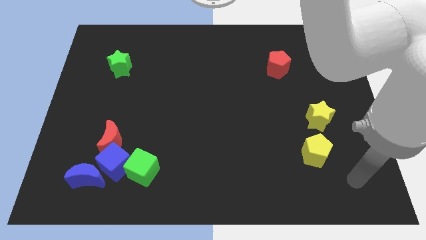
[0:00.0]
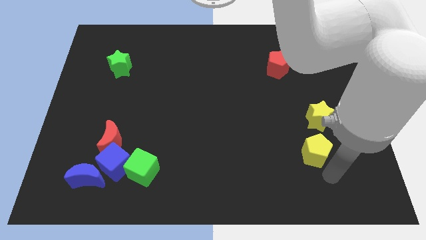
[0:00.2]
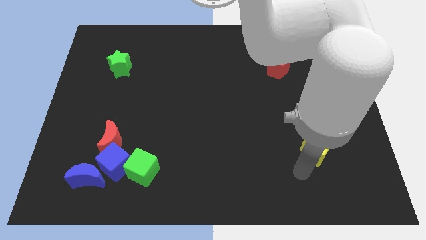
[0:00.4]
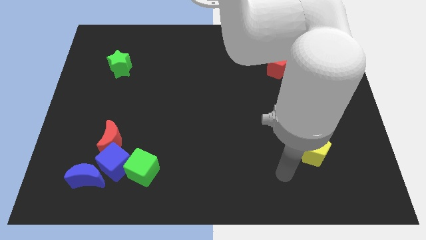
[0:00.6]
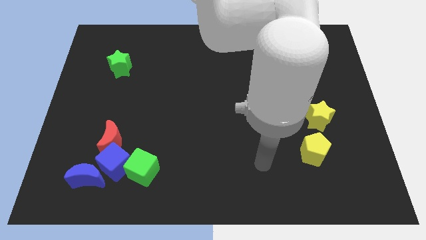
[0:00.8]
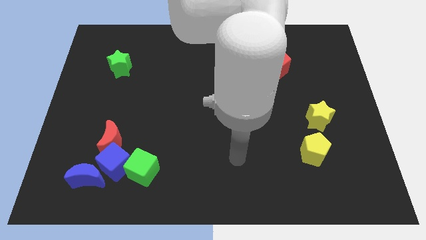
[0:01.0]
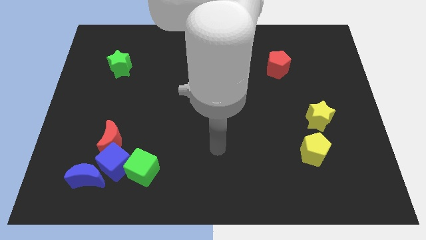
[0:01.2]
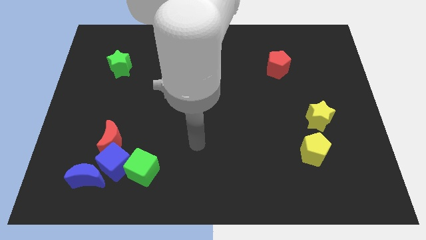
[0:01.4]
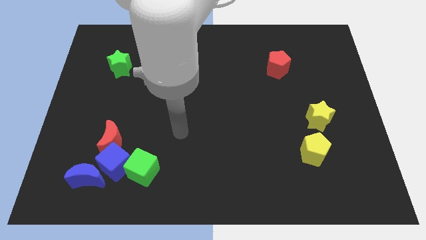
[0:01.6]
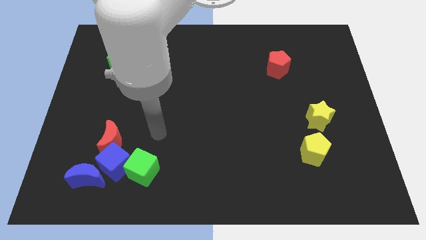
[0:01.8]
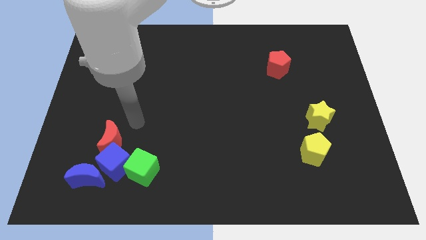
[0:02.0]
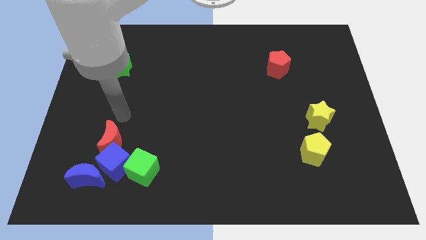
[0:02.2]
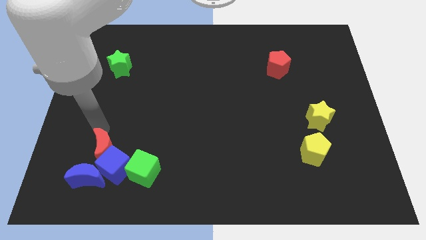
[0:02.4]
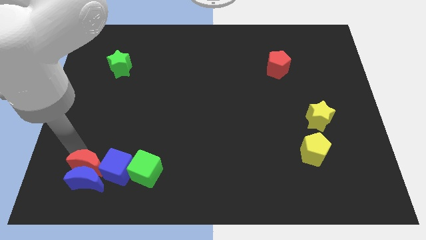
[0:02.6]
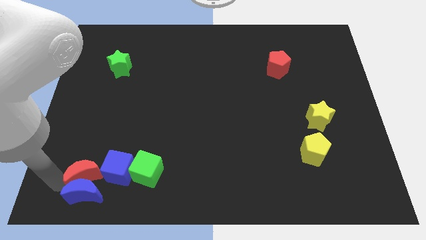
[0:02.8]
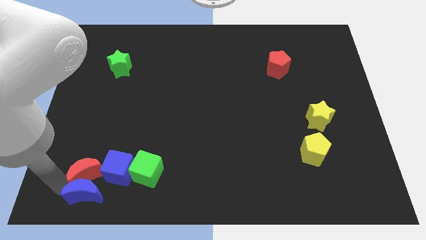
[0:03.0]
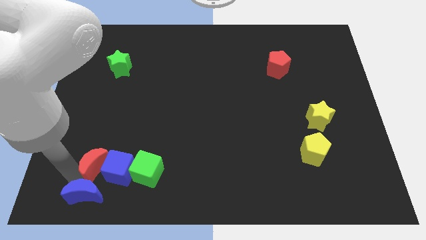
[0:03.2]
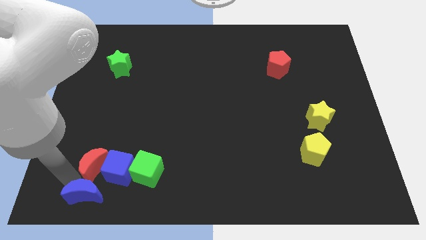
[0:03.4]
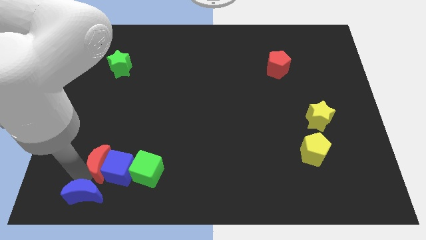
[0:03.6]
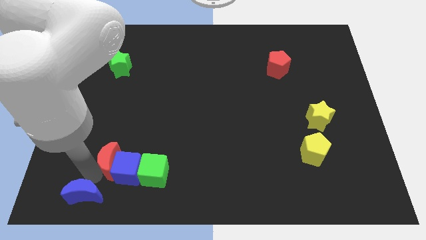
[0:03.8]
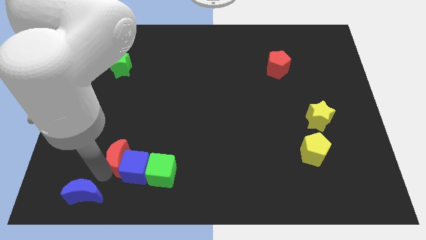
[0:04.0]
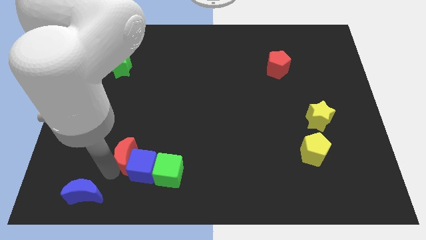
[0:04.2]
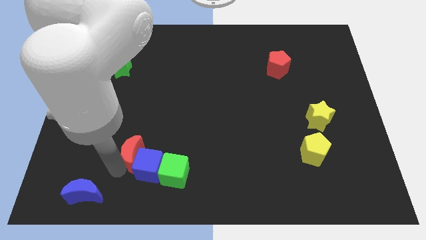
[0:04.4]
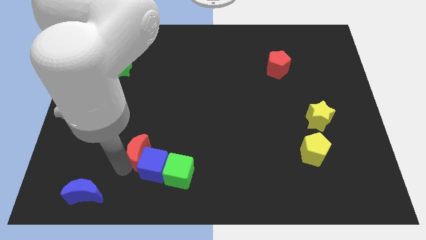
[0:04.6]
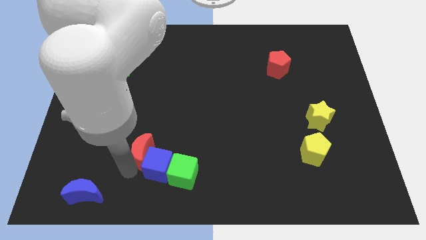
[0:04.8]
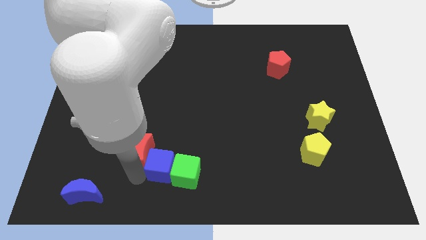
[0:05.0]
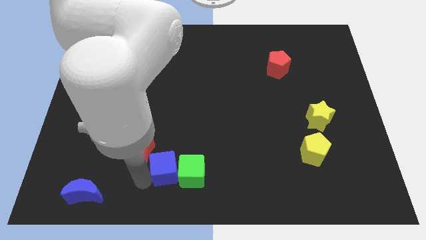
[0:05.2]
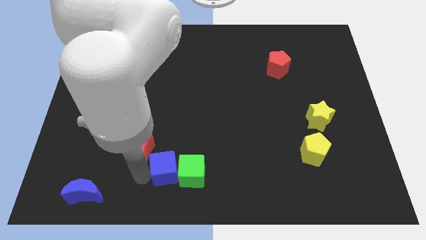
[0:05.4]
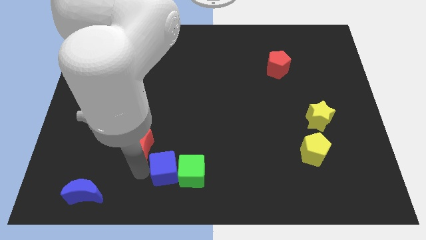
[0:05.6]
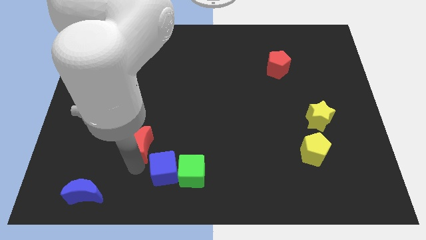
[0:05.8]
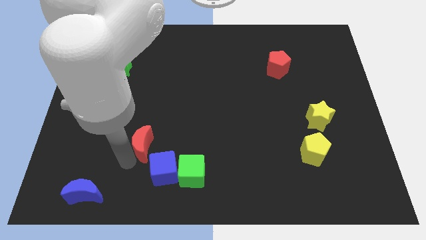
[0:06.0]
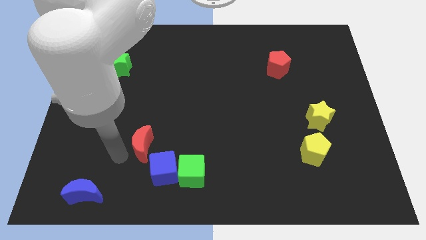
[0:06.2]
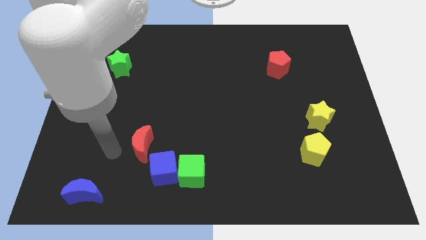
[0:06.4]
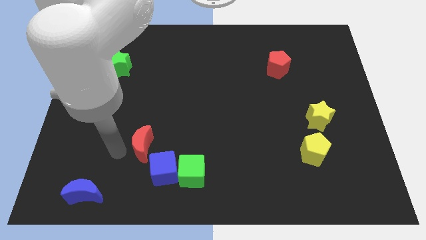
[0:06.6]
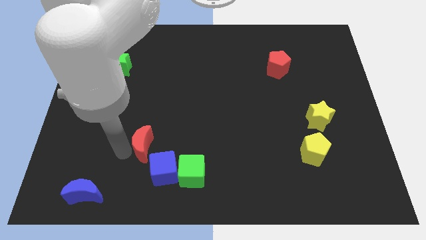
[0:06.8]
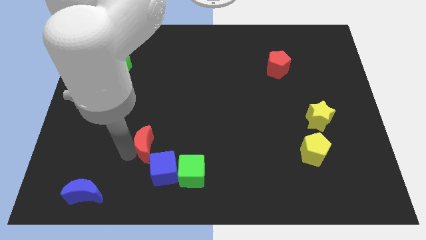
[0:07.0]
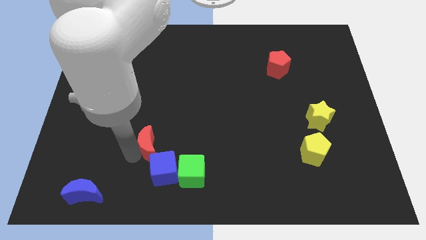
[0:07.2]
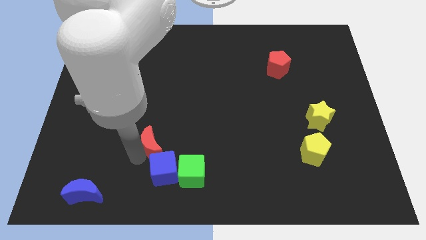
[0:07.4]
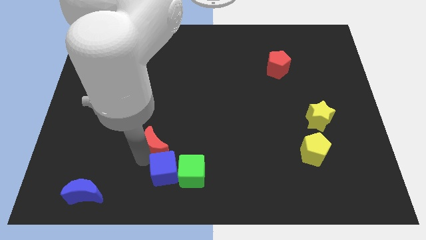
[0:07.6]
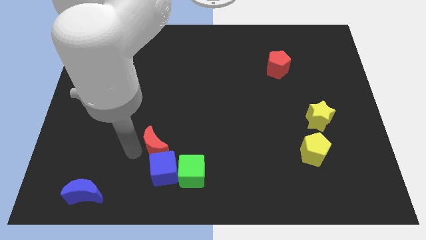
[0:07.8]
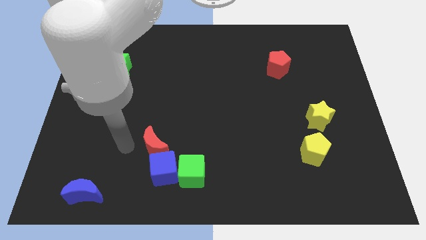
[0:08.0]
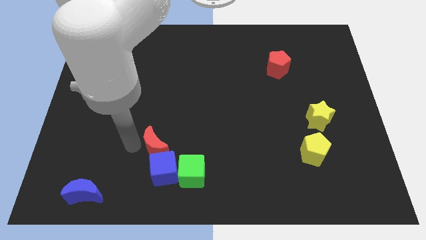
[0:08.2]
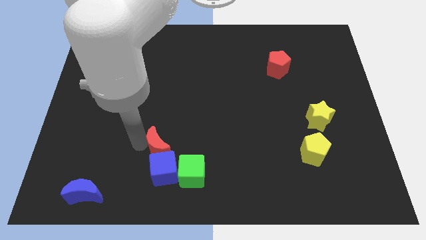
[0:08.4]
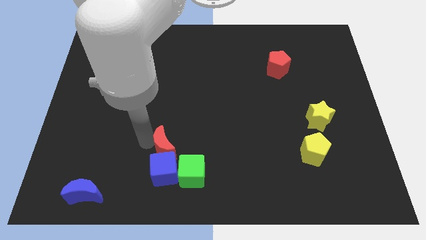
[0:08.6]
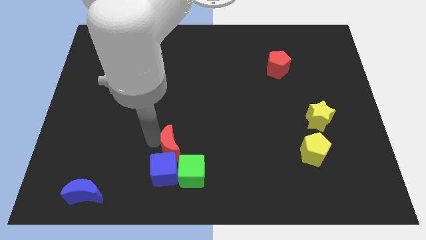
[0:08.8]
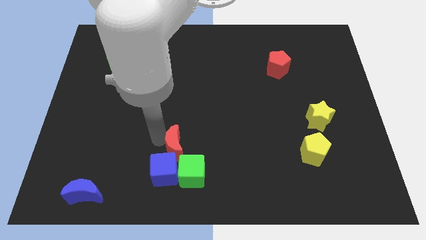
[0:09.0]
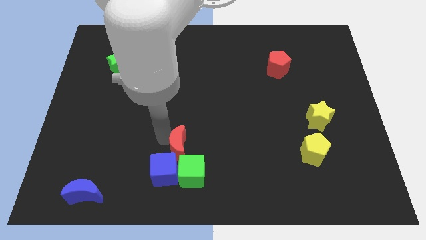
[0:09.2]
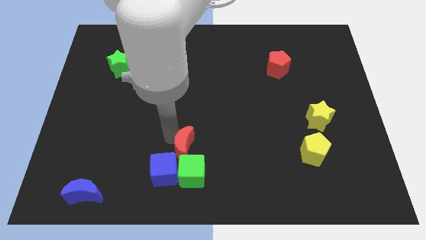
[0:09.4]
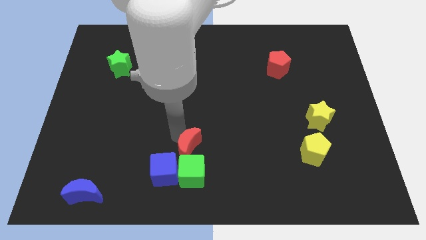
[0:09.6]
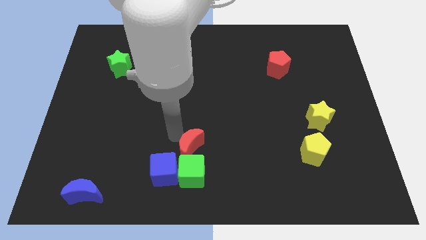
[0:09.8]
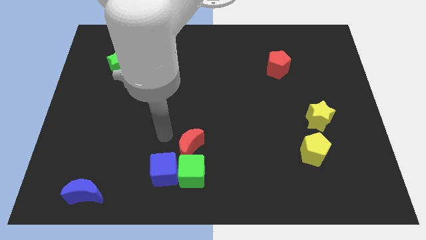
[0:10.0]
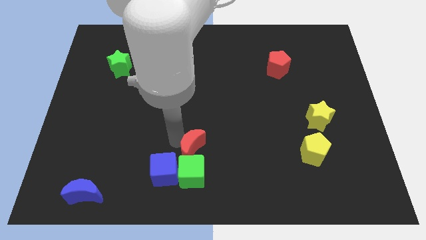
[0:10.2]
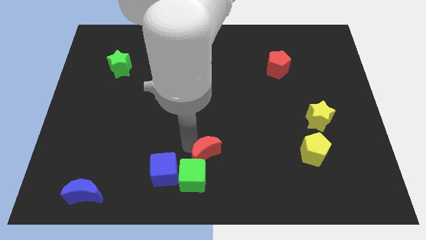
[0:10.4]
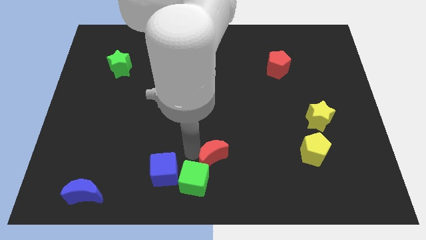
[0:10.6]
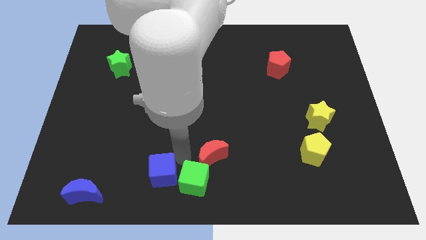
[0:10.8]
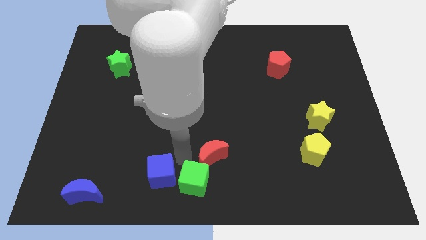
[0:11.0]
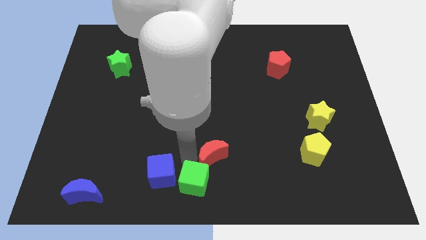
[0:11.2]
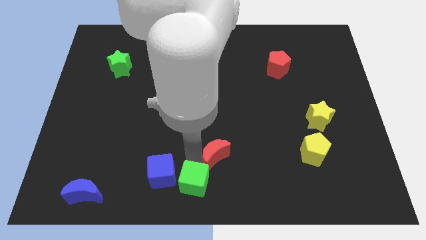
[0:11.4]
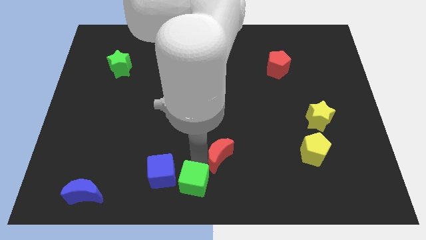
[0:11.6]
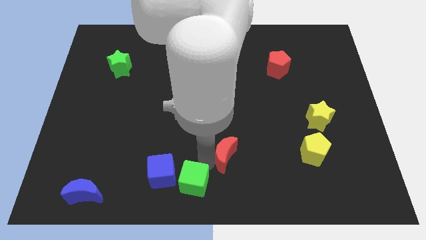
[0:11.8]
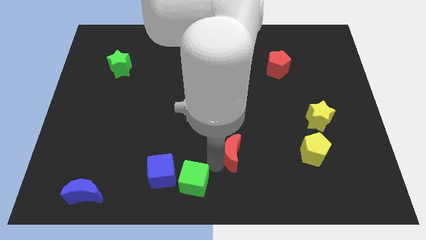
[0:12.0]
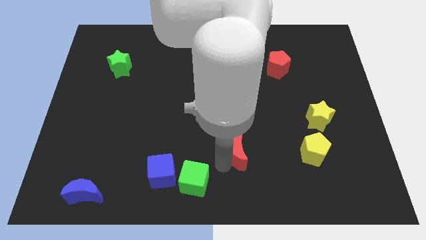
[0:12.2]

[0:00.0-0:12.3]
put the red moon just left of the yellow pentagon

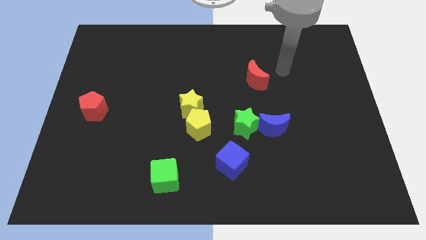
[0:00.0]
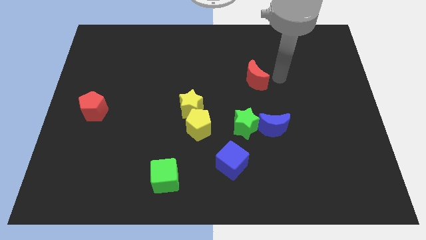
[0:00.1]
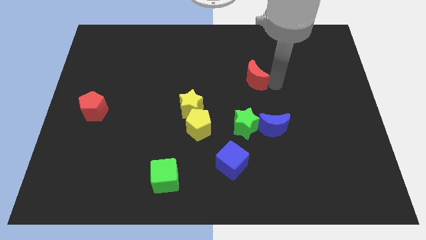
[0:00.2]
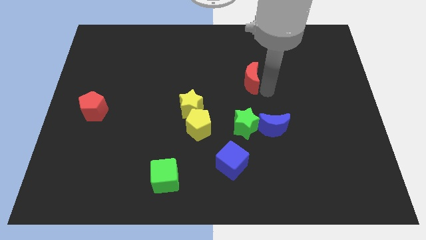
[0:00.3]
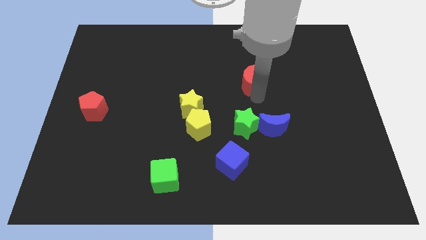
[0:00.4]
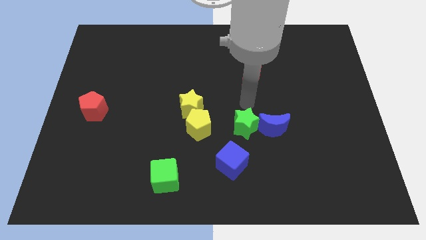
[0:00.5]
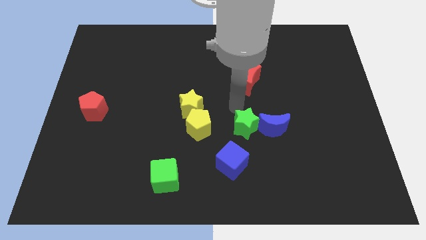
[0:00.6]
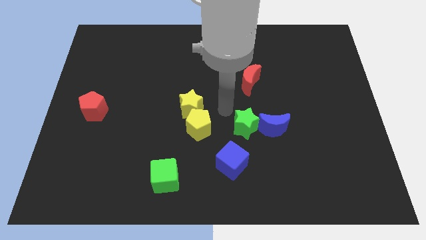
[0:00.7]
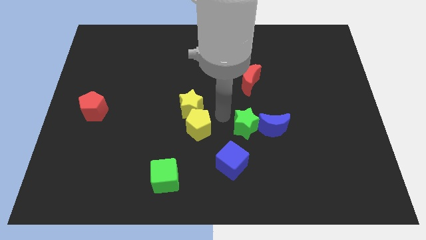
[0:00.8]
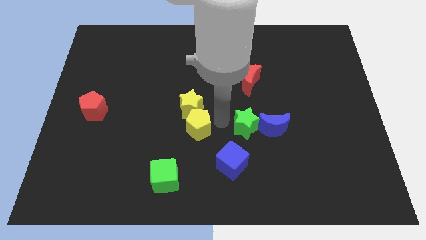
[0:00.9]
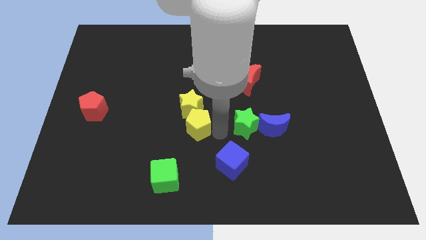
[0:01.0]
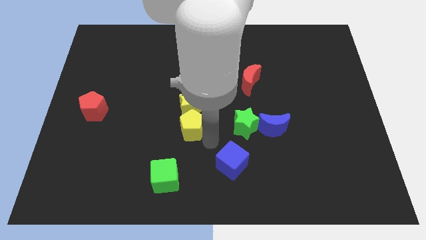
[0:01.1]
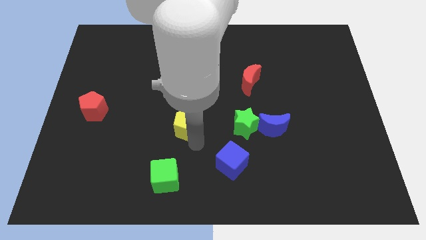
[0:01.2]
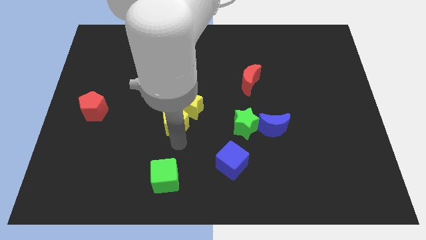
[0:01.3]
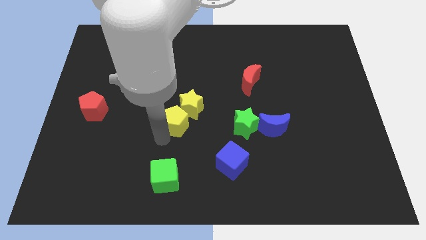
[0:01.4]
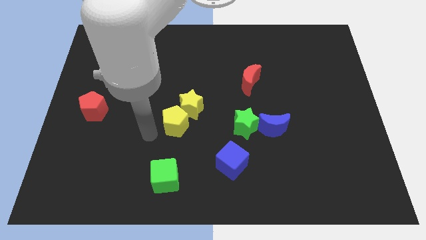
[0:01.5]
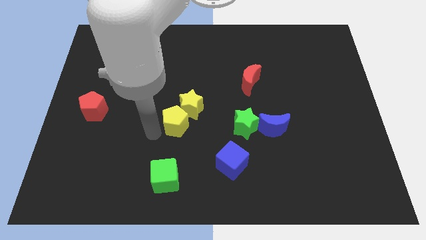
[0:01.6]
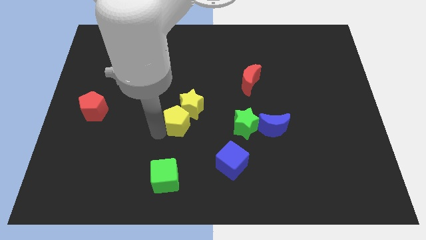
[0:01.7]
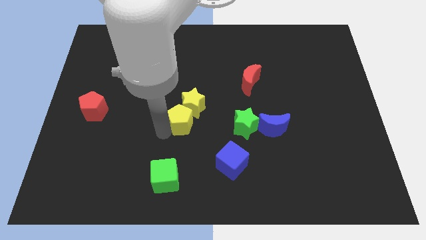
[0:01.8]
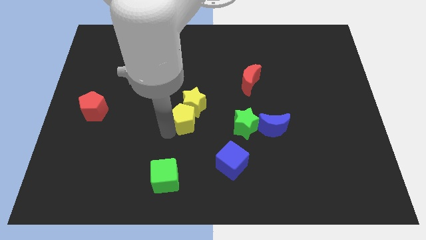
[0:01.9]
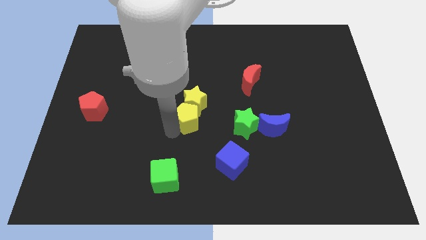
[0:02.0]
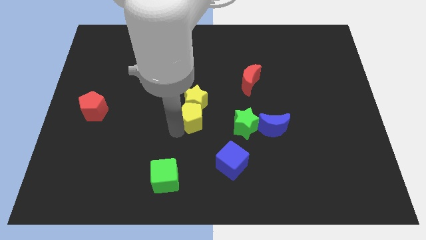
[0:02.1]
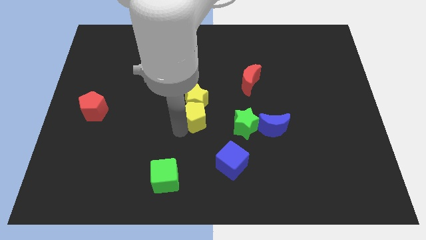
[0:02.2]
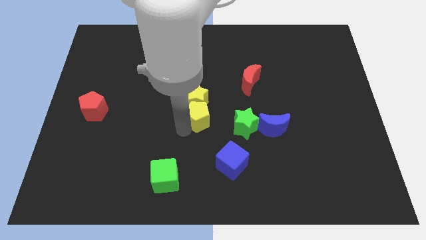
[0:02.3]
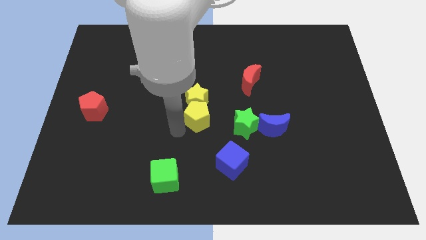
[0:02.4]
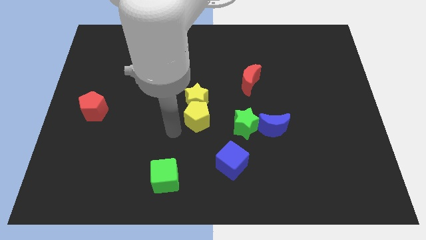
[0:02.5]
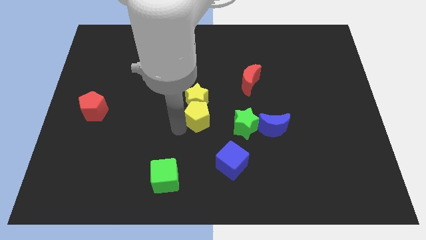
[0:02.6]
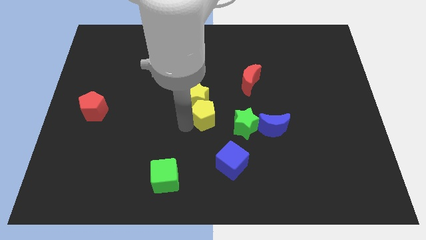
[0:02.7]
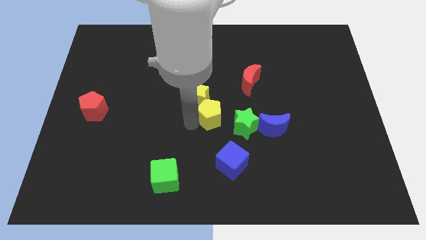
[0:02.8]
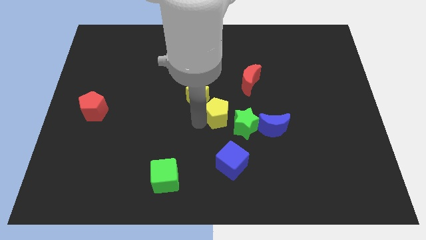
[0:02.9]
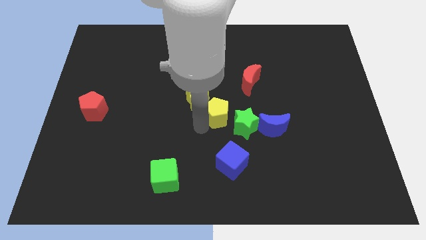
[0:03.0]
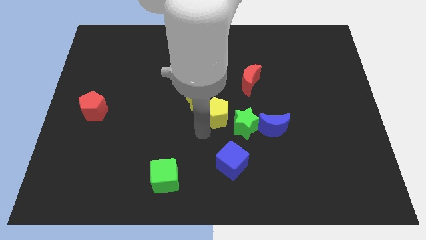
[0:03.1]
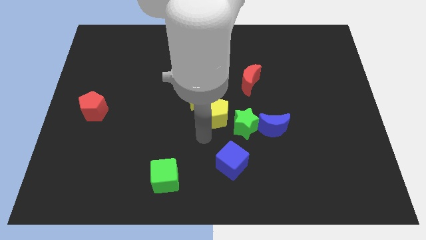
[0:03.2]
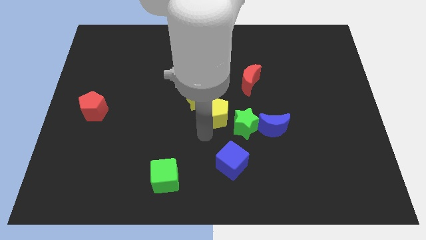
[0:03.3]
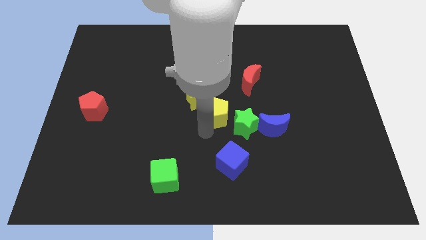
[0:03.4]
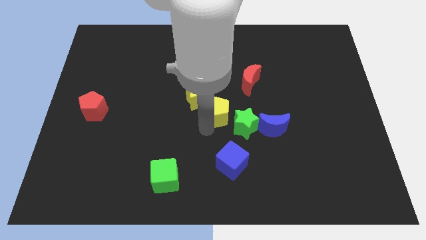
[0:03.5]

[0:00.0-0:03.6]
slide the yellow pentagon to the bottom left of the red moon
